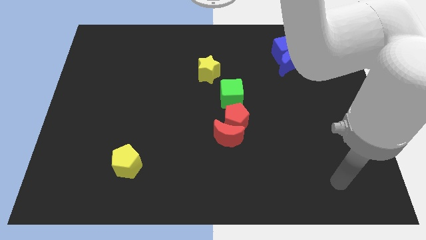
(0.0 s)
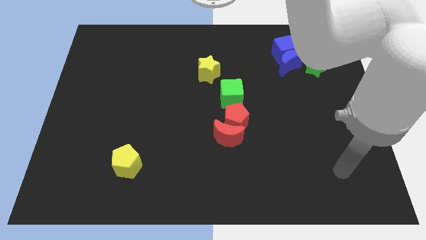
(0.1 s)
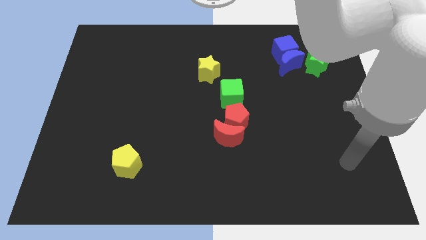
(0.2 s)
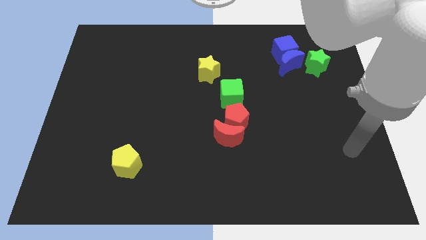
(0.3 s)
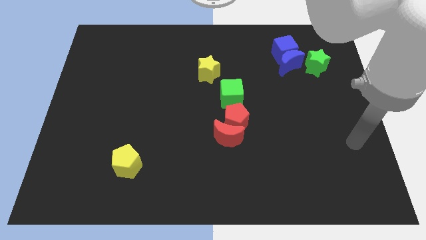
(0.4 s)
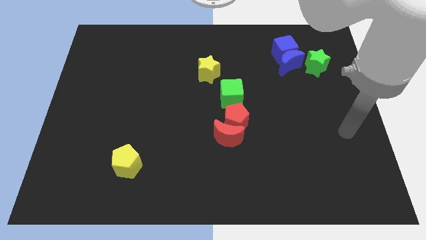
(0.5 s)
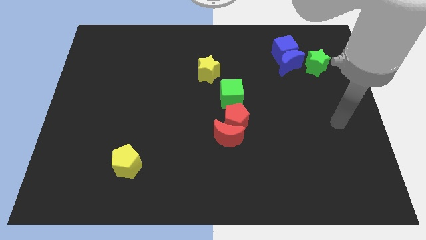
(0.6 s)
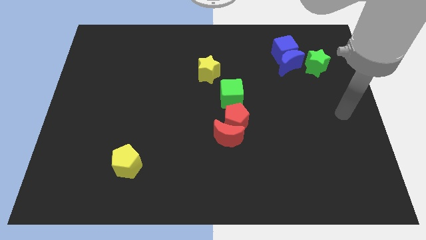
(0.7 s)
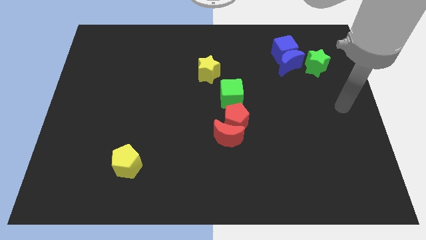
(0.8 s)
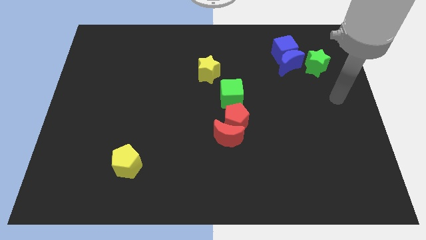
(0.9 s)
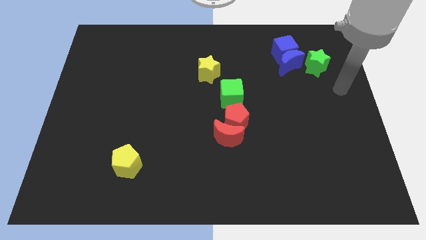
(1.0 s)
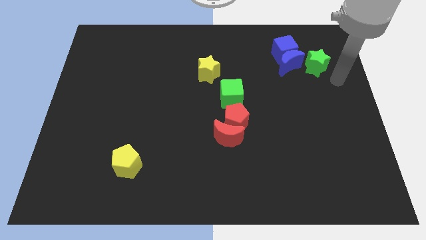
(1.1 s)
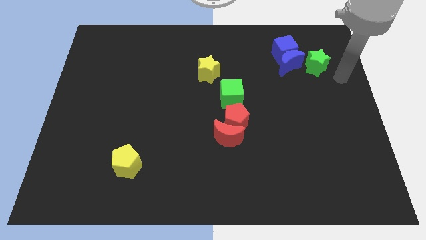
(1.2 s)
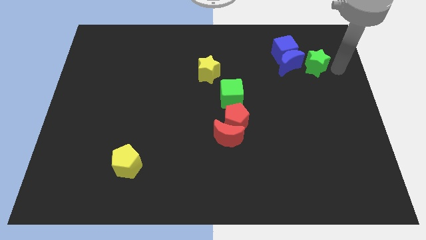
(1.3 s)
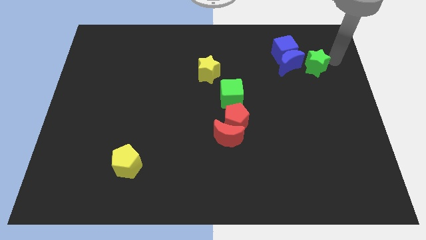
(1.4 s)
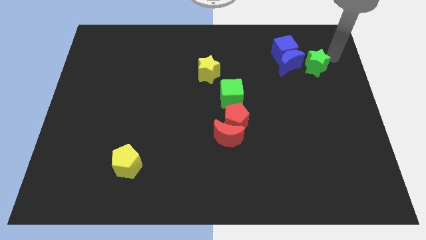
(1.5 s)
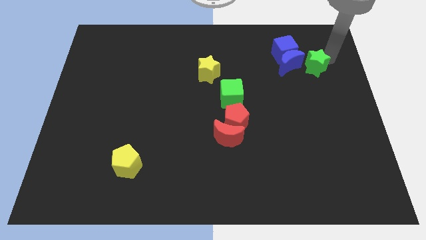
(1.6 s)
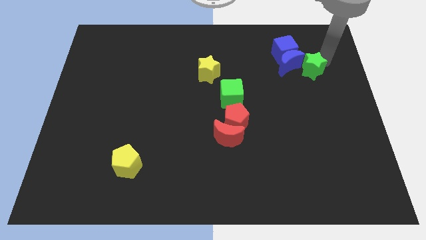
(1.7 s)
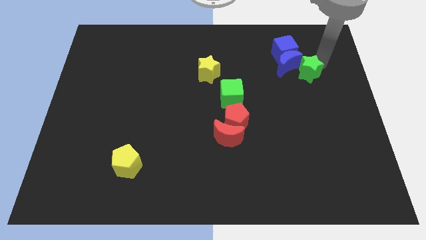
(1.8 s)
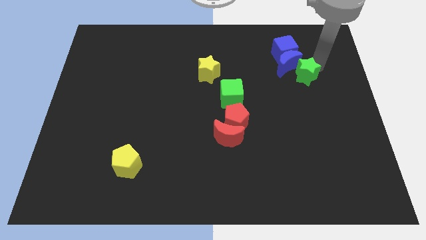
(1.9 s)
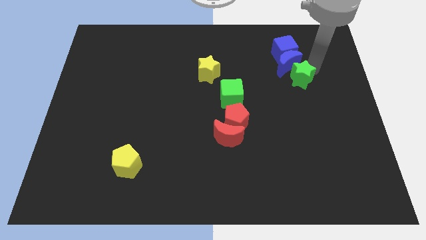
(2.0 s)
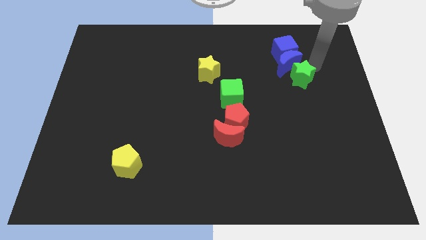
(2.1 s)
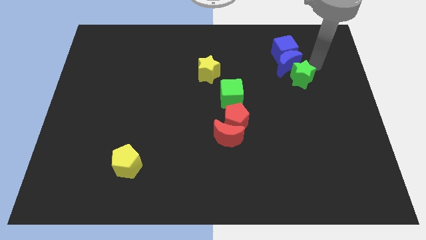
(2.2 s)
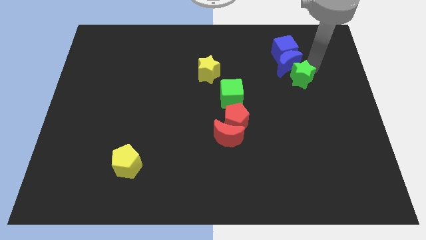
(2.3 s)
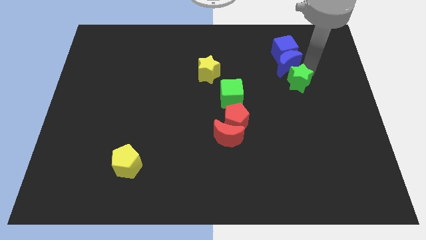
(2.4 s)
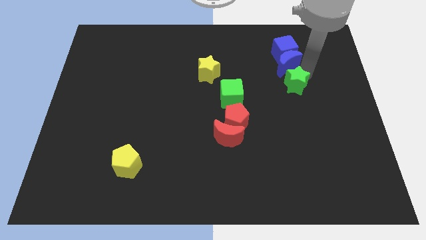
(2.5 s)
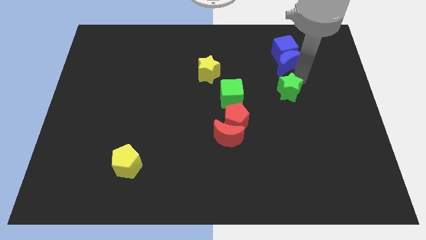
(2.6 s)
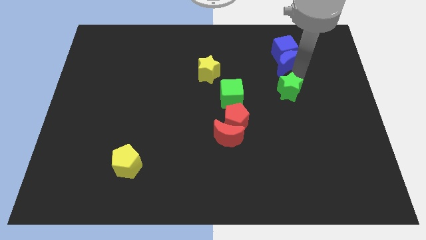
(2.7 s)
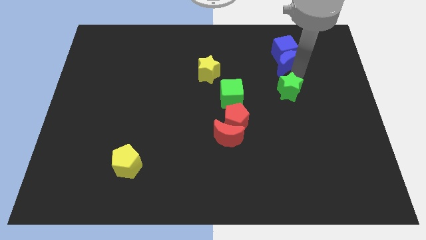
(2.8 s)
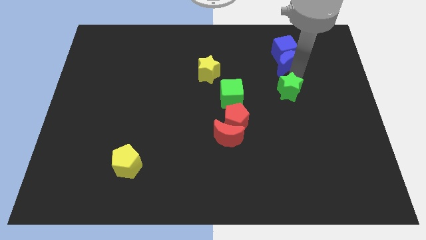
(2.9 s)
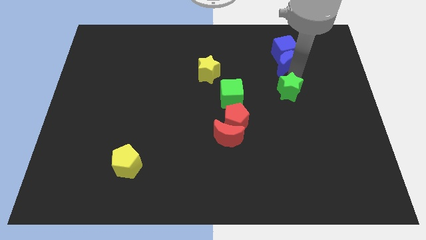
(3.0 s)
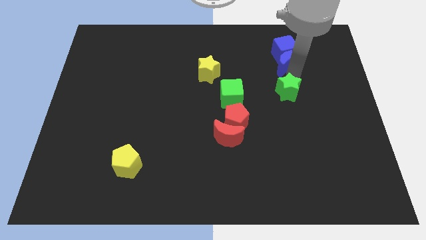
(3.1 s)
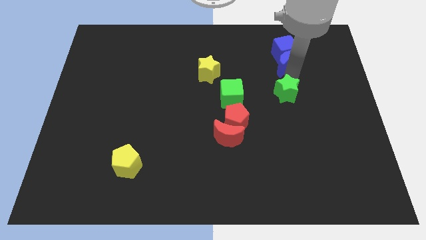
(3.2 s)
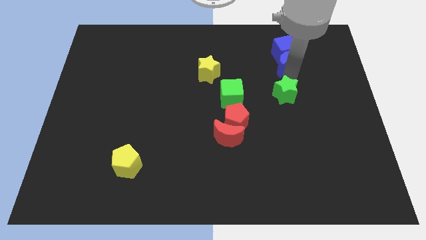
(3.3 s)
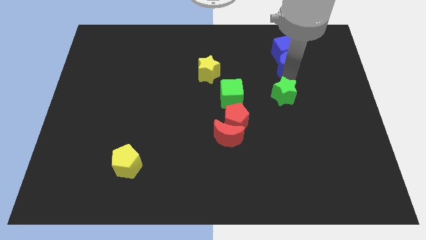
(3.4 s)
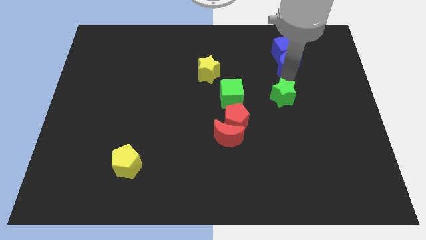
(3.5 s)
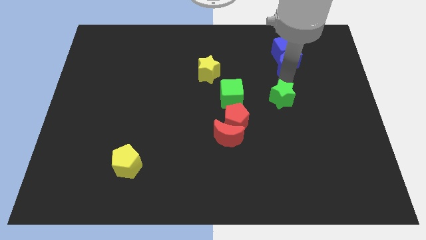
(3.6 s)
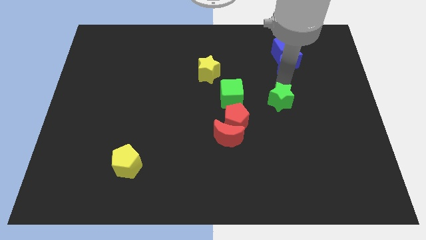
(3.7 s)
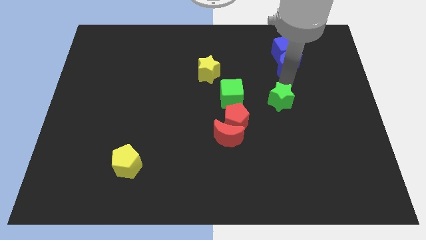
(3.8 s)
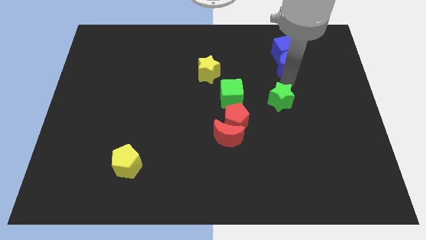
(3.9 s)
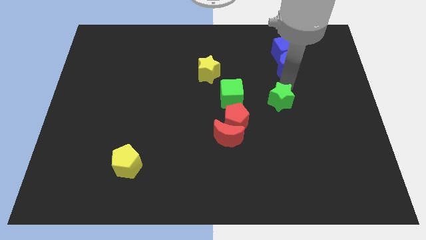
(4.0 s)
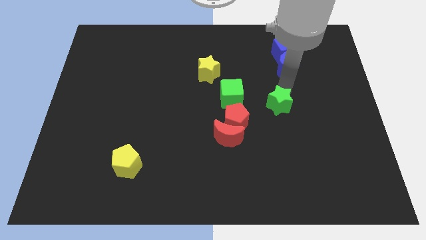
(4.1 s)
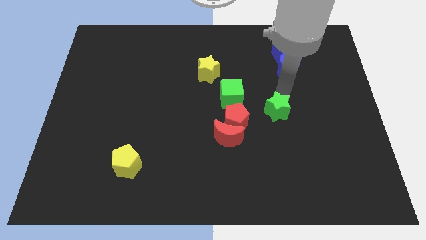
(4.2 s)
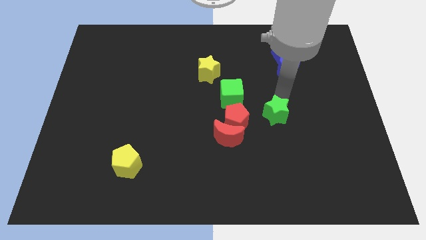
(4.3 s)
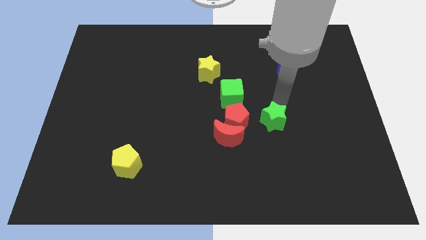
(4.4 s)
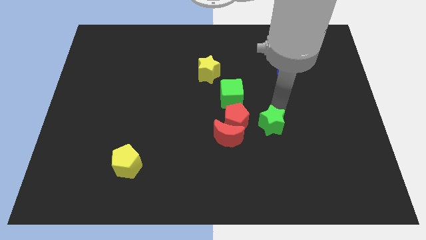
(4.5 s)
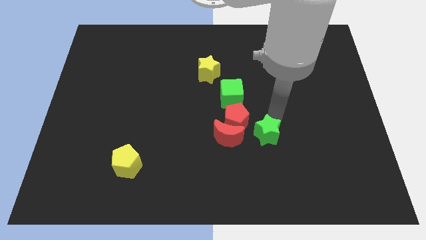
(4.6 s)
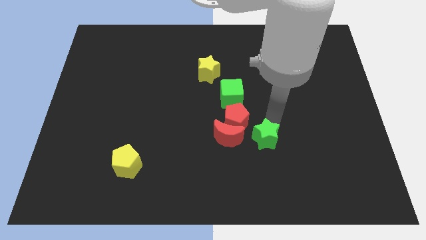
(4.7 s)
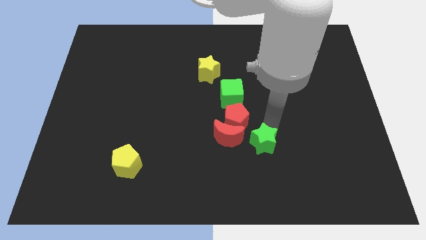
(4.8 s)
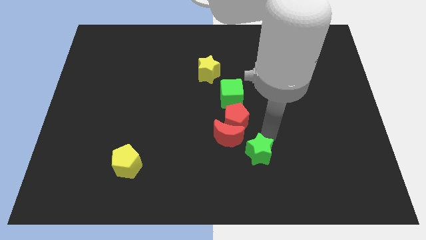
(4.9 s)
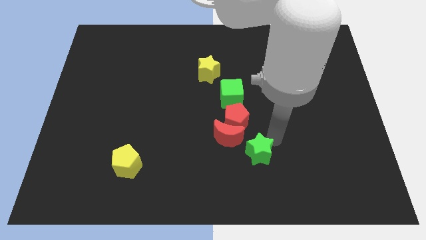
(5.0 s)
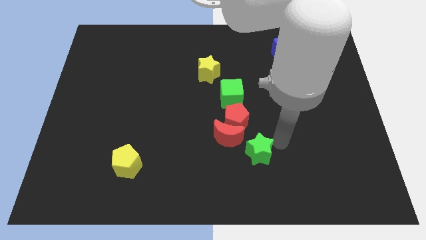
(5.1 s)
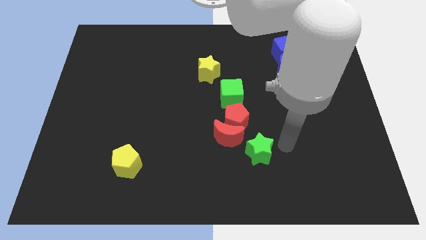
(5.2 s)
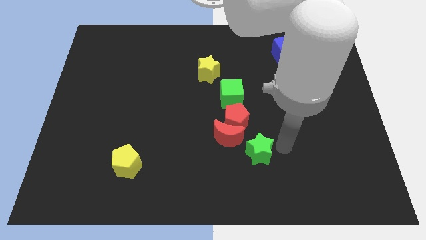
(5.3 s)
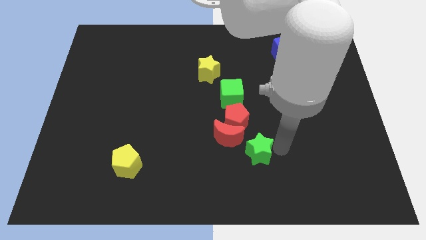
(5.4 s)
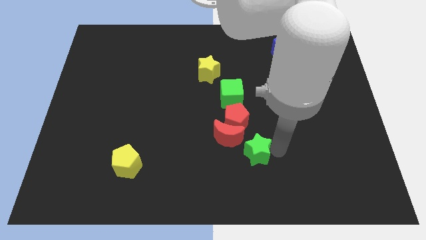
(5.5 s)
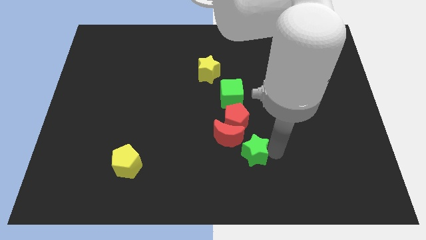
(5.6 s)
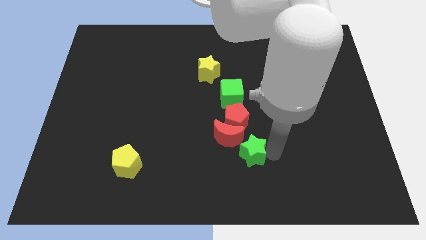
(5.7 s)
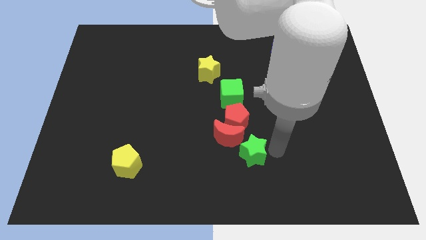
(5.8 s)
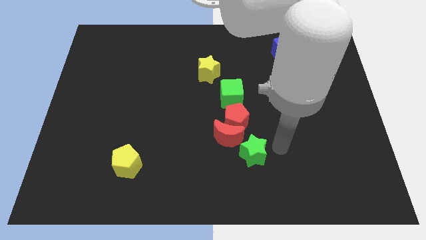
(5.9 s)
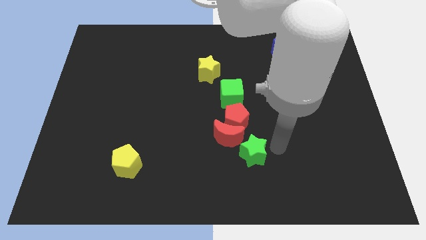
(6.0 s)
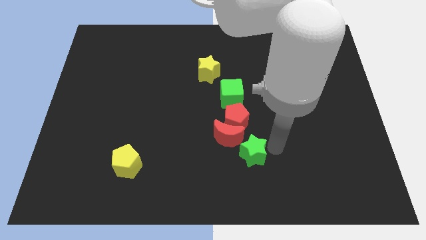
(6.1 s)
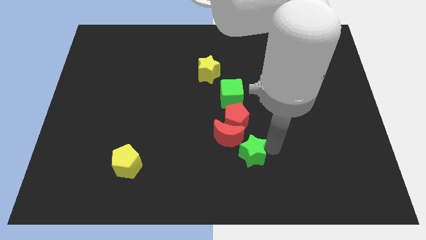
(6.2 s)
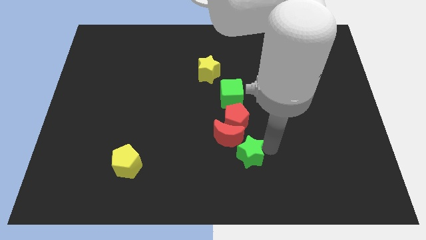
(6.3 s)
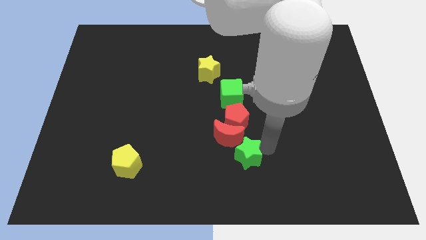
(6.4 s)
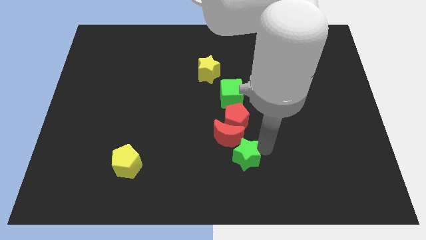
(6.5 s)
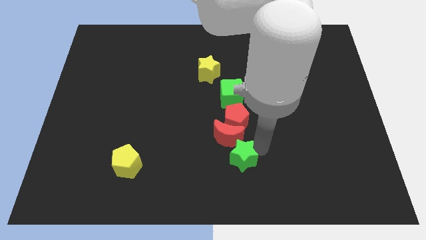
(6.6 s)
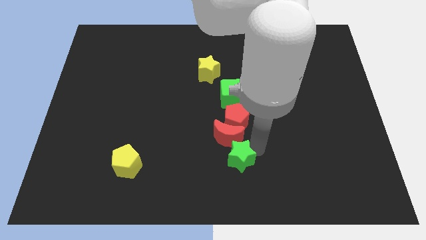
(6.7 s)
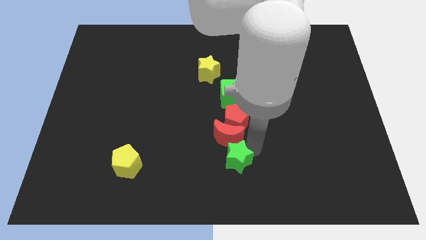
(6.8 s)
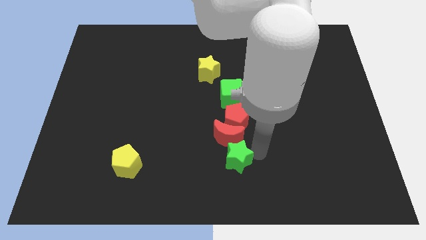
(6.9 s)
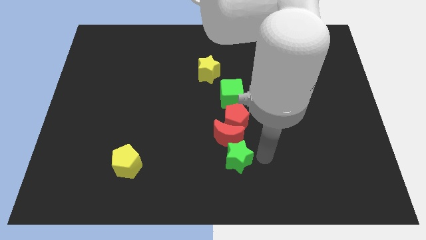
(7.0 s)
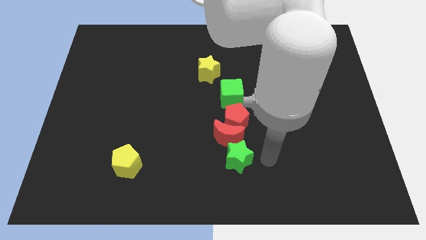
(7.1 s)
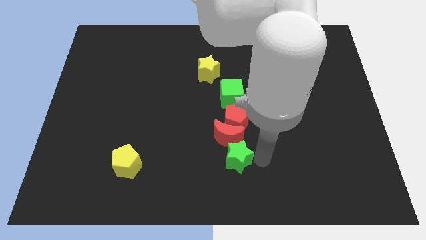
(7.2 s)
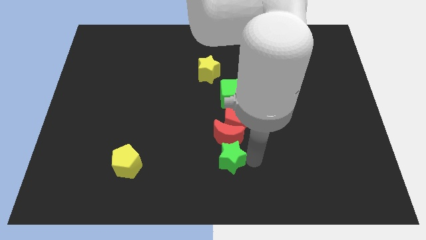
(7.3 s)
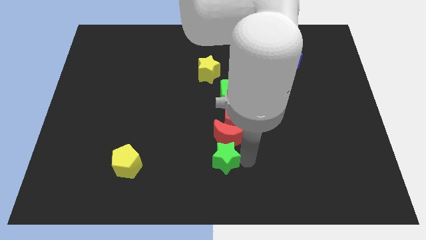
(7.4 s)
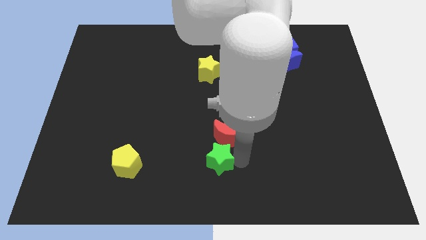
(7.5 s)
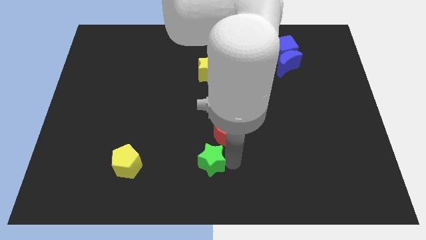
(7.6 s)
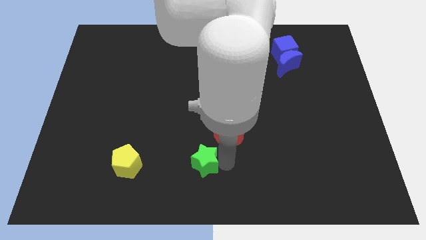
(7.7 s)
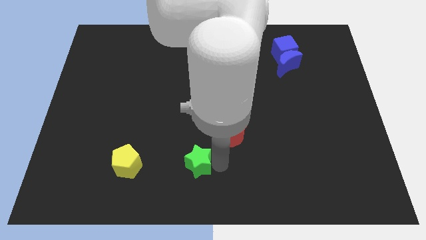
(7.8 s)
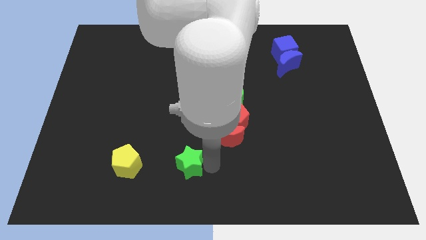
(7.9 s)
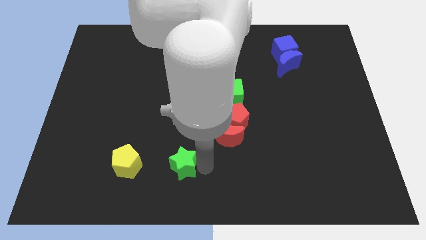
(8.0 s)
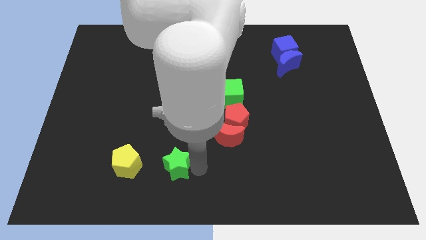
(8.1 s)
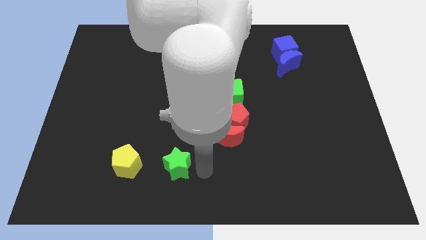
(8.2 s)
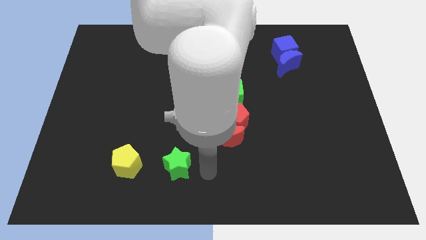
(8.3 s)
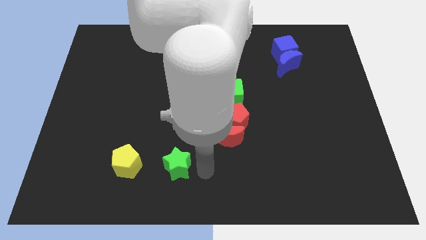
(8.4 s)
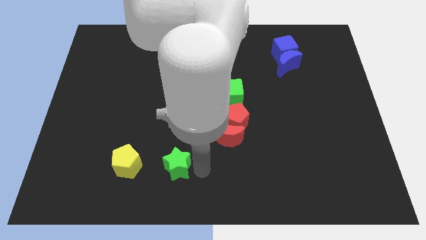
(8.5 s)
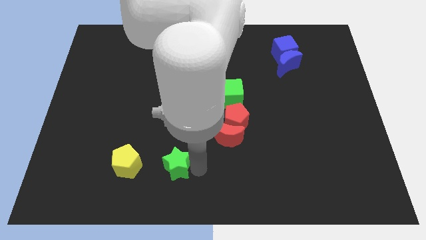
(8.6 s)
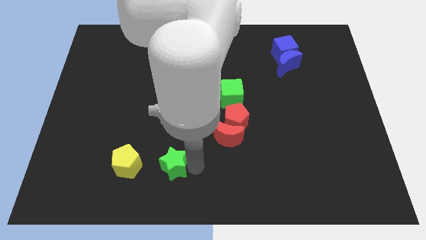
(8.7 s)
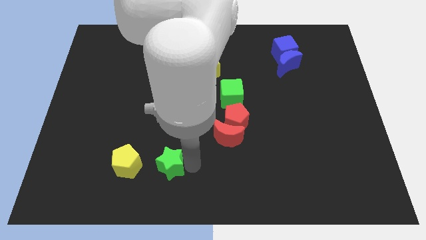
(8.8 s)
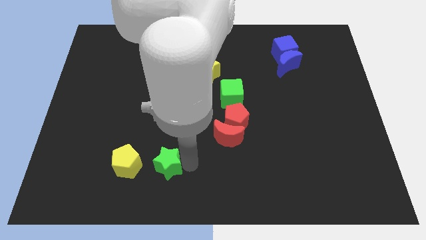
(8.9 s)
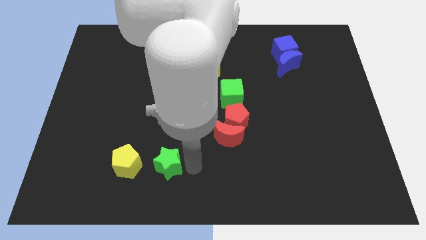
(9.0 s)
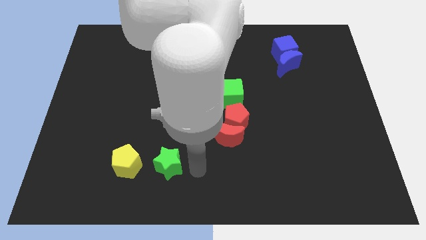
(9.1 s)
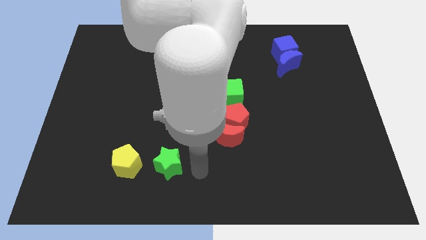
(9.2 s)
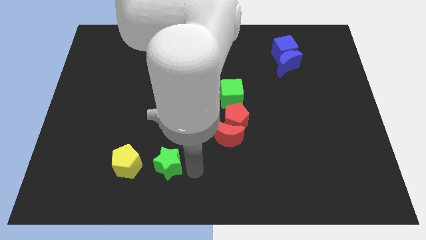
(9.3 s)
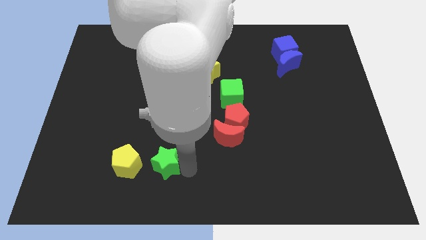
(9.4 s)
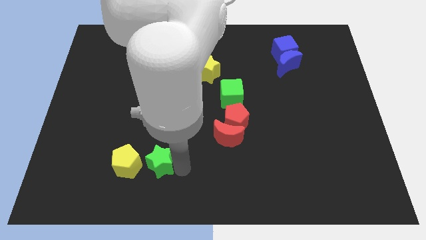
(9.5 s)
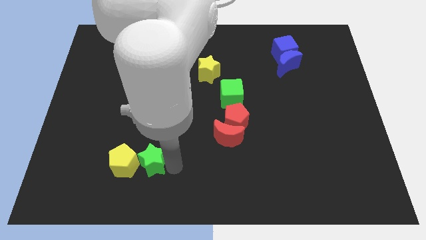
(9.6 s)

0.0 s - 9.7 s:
move the green star to the yellow pentagon
